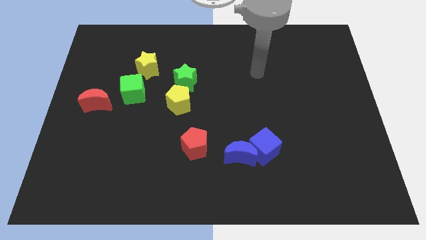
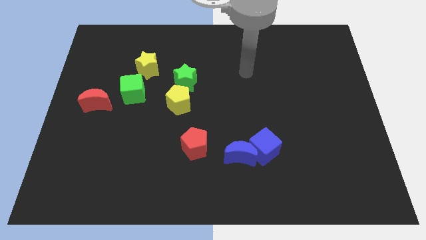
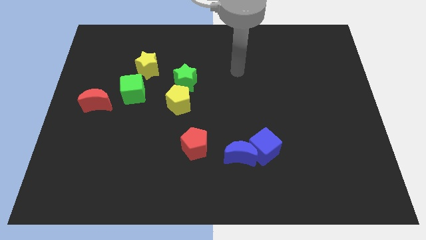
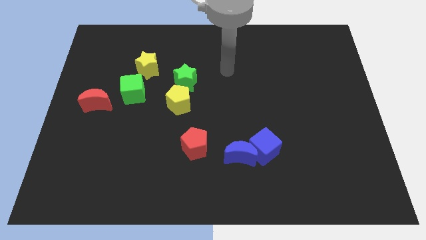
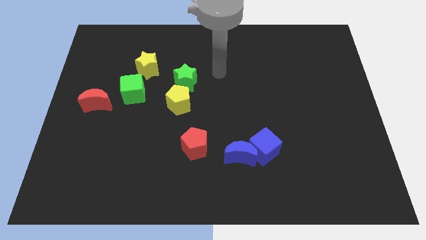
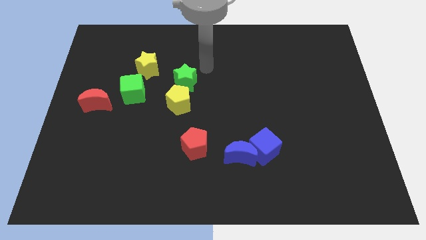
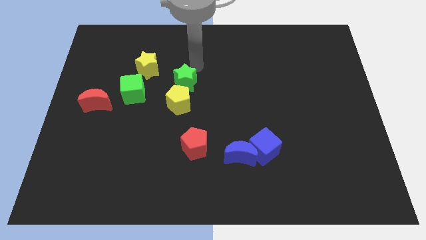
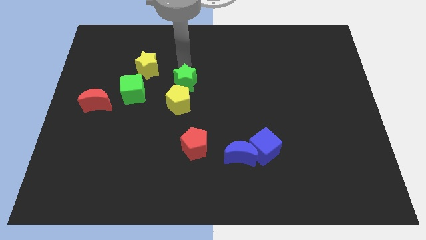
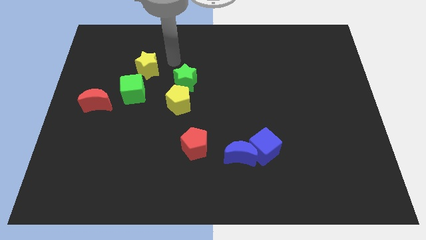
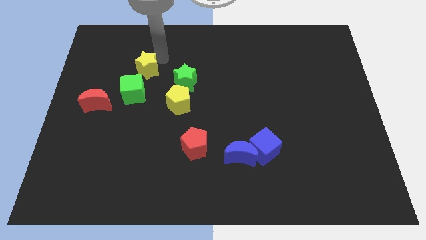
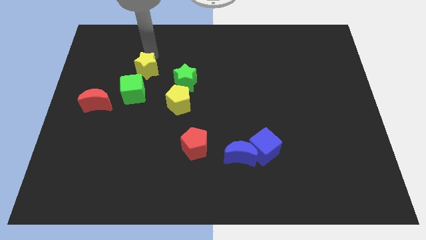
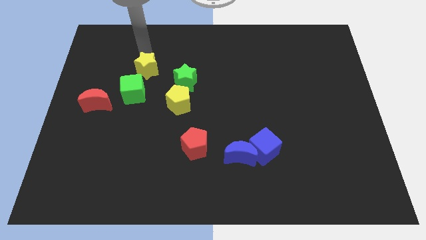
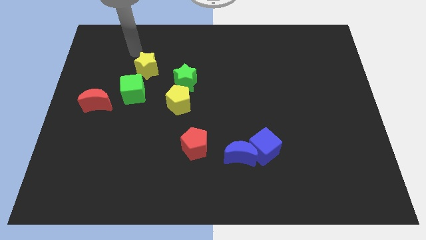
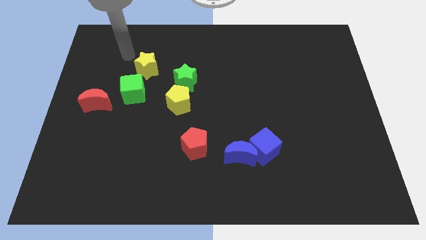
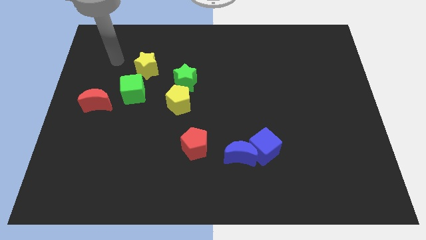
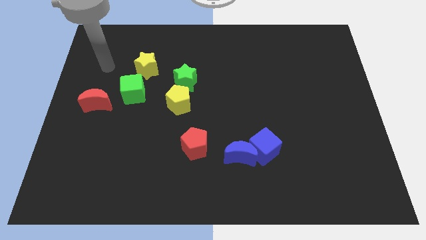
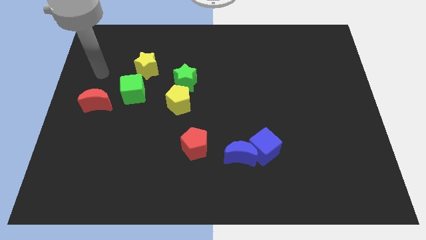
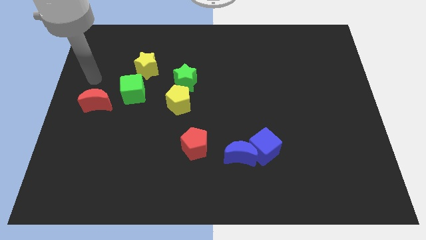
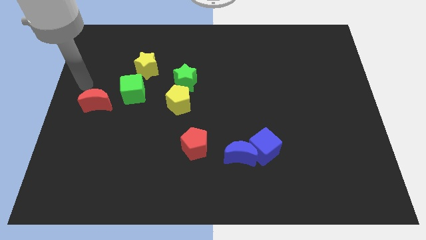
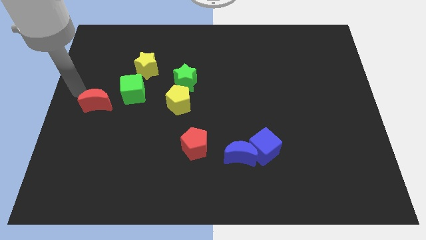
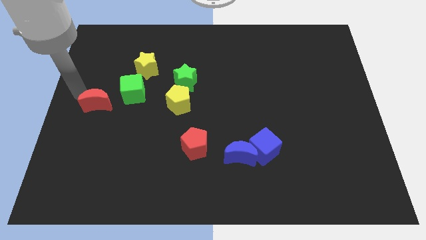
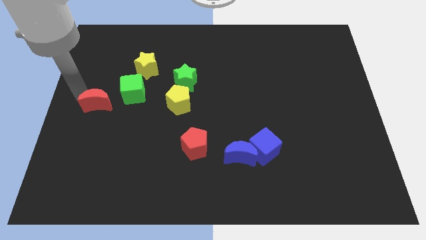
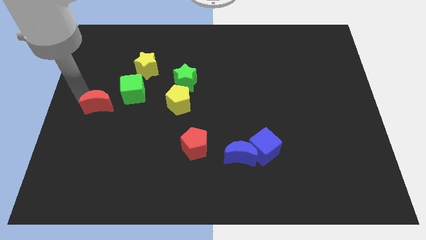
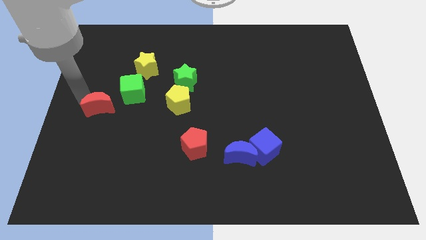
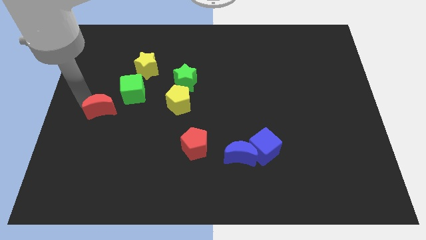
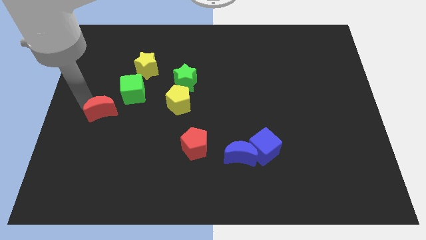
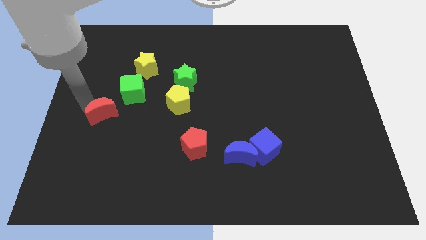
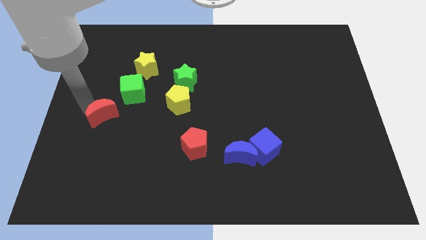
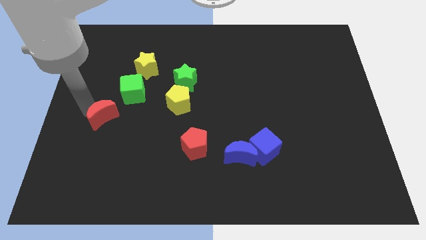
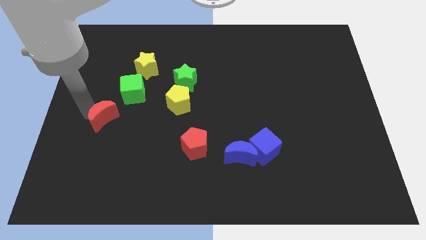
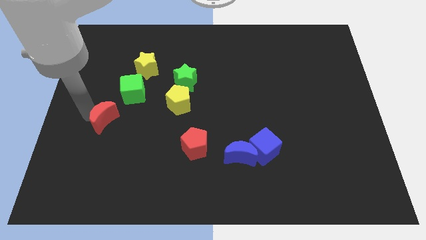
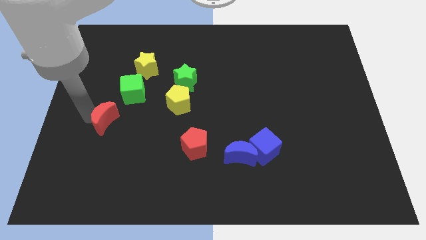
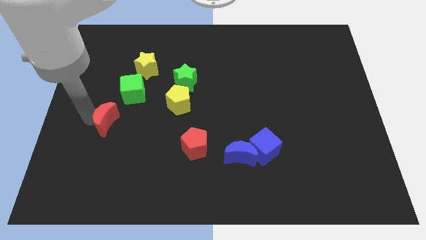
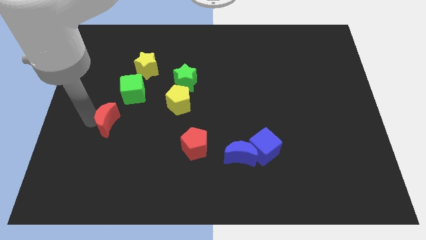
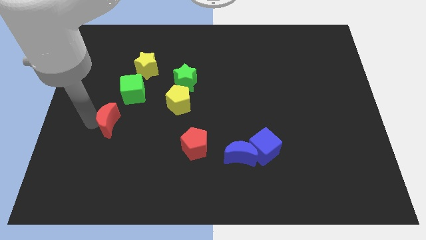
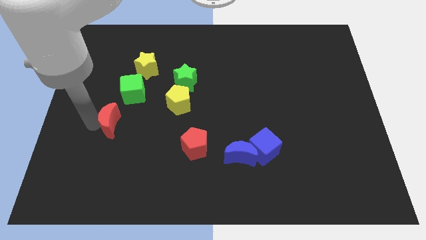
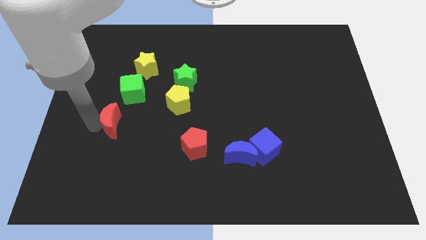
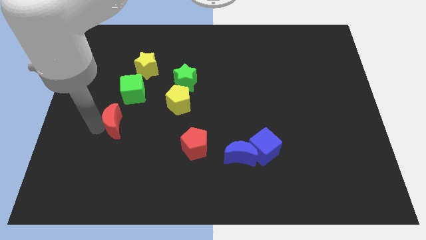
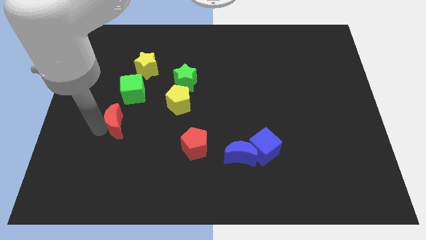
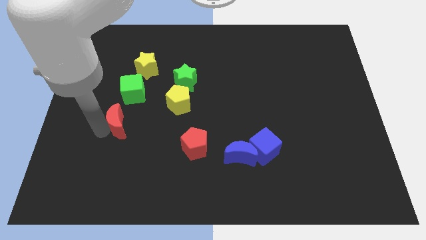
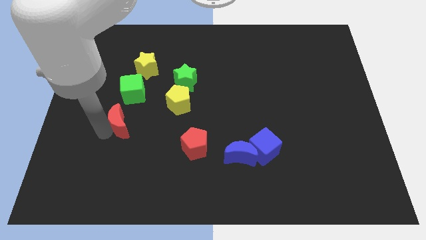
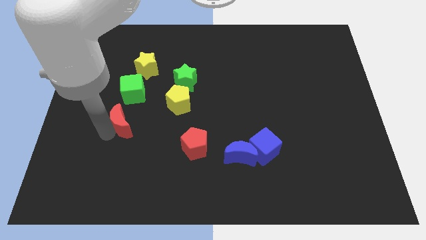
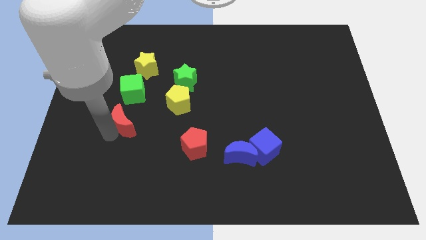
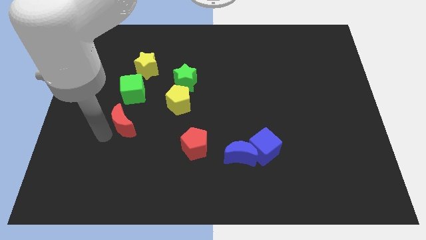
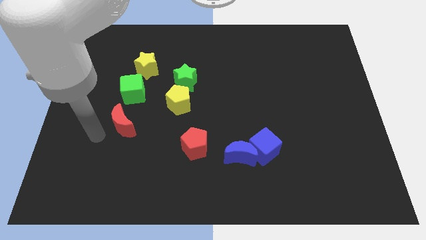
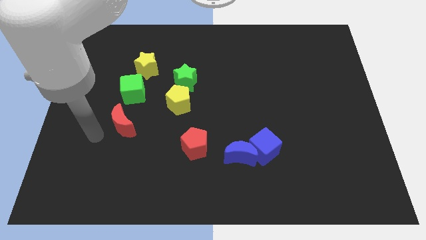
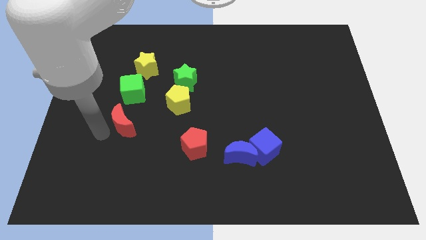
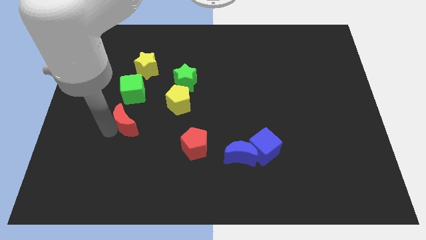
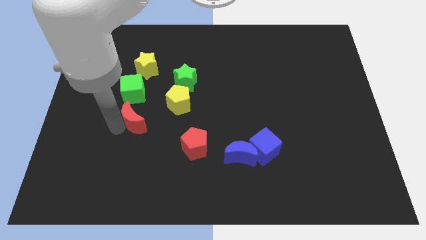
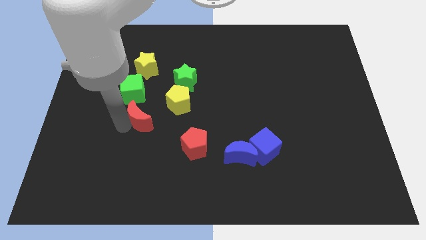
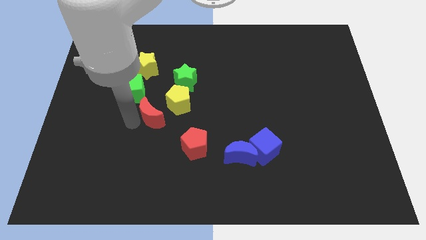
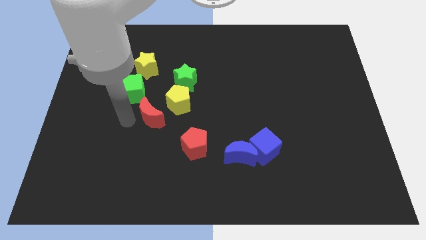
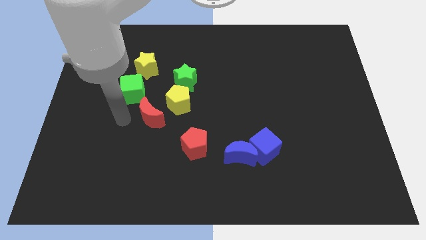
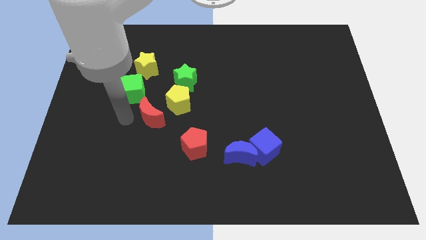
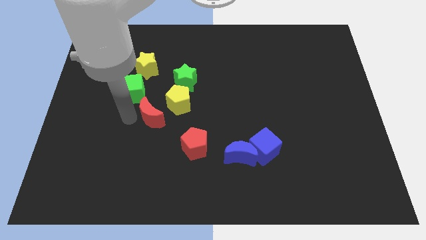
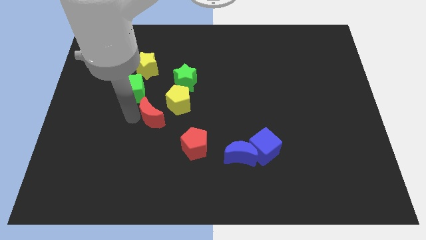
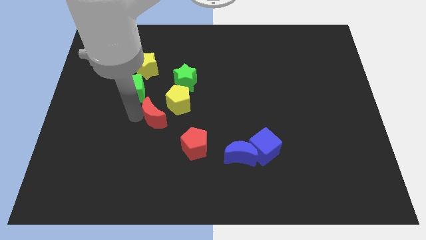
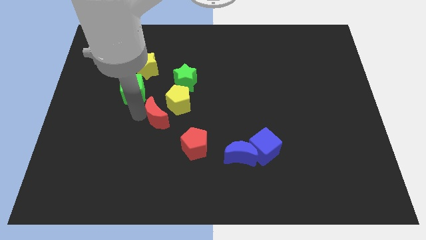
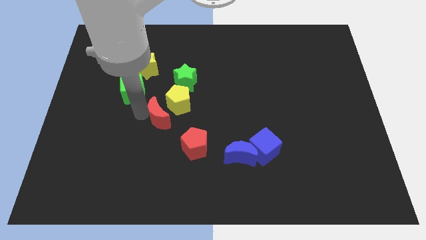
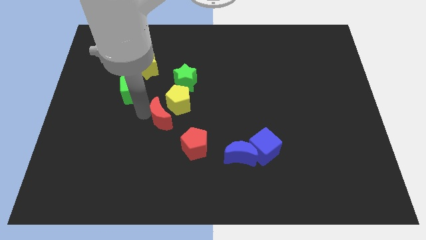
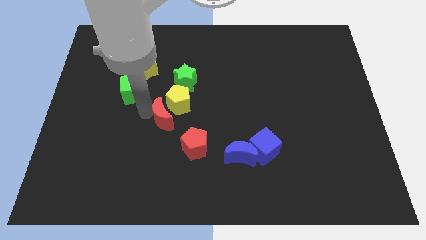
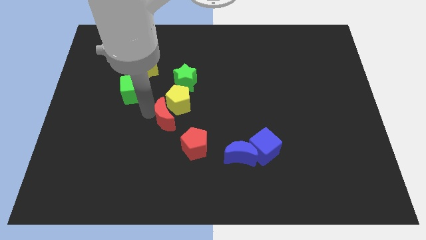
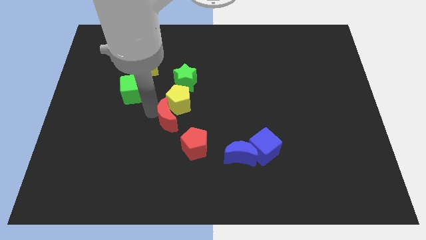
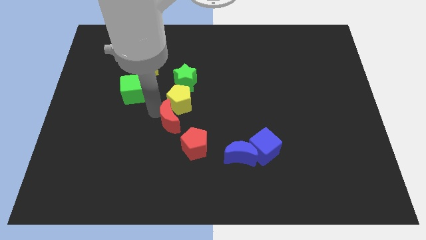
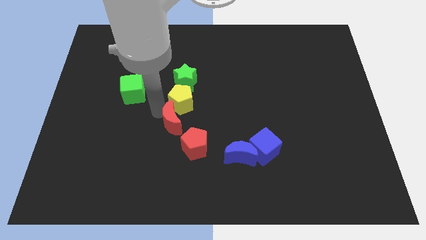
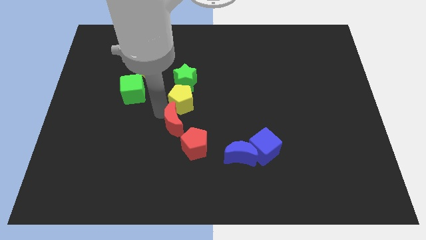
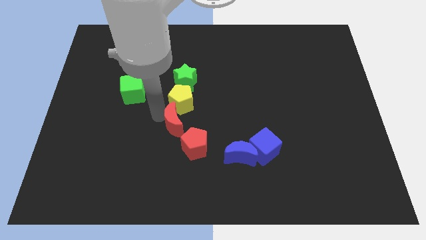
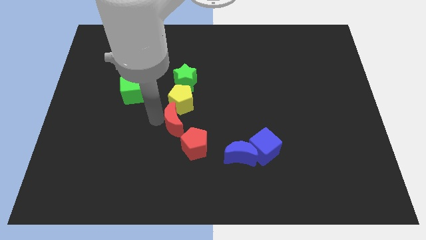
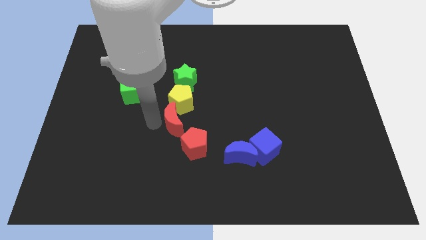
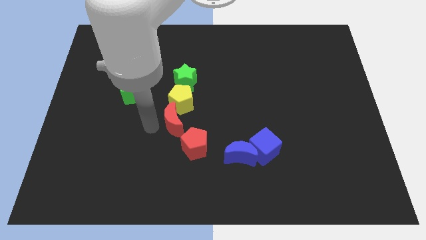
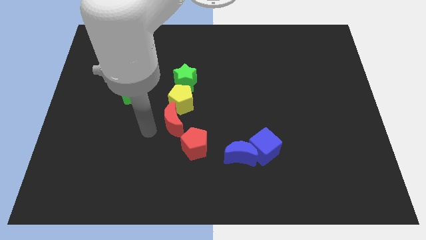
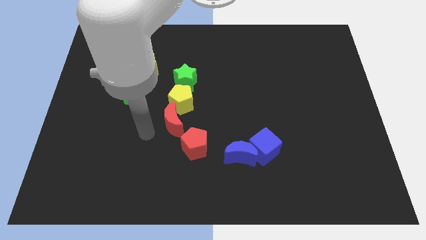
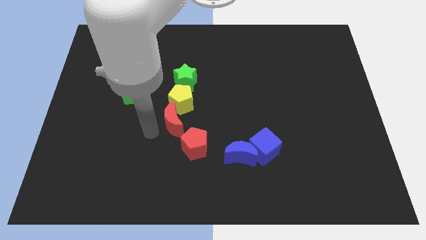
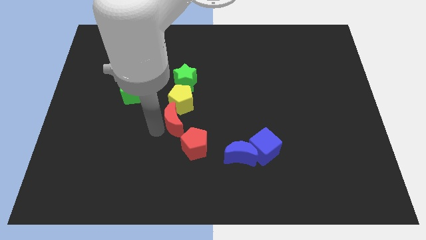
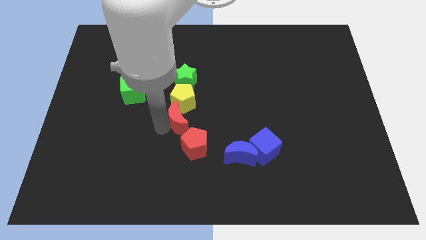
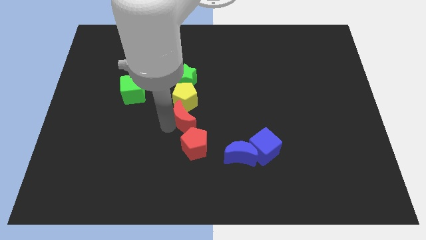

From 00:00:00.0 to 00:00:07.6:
push the red moon to the right

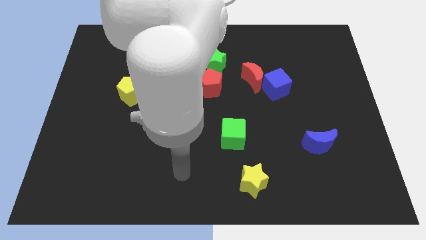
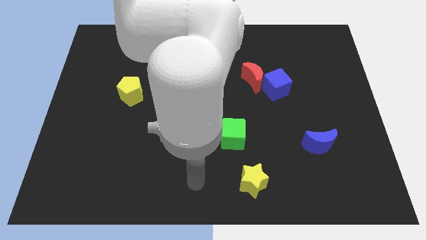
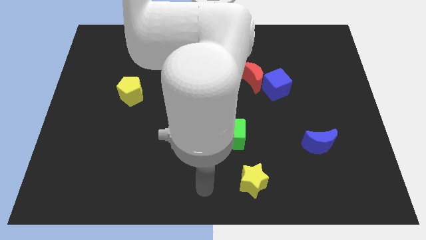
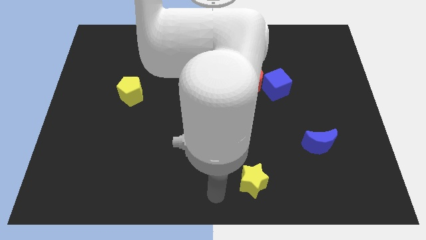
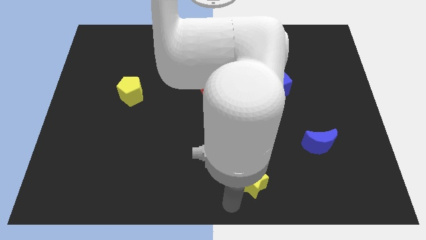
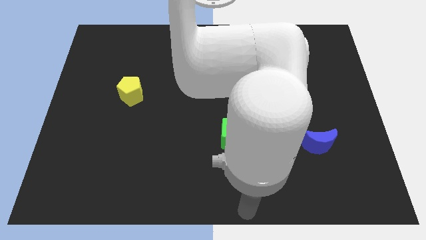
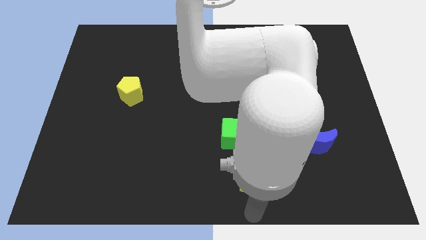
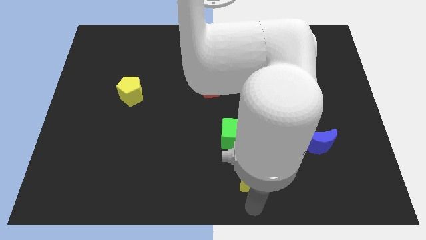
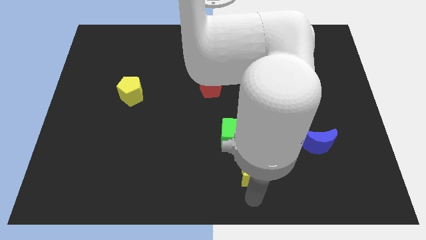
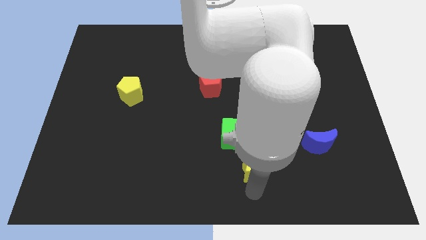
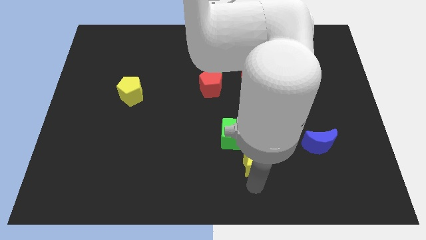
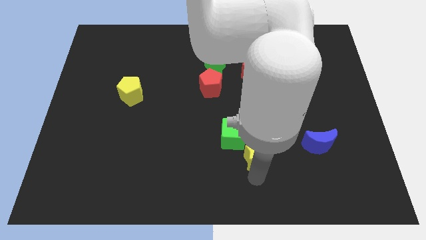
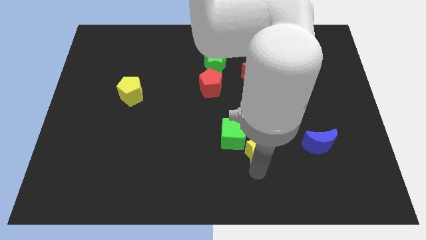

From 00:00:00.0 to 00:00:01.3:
move the yellow star a bit up
